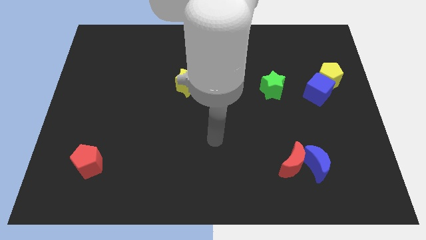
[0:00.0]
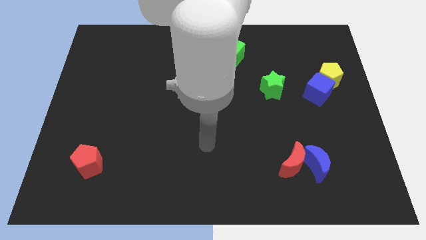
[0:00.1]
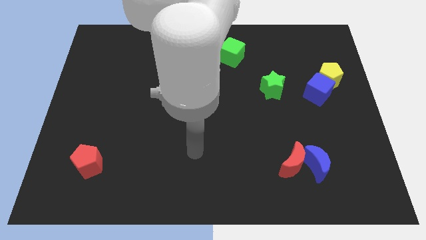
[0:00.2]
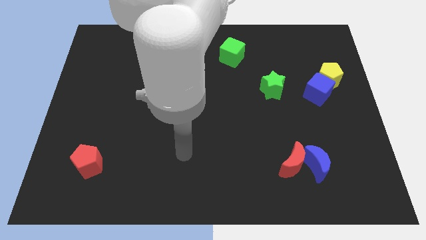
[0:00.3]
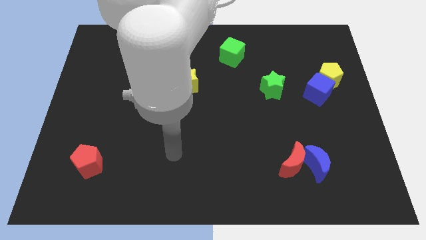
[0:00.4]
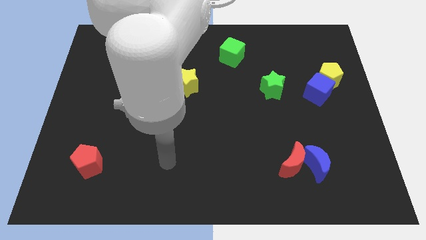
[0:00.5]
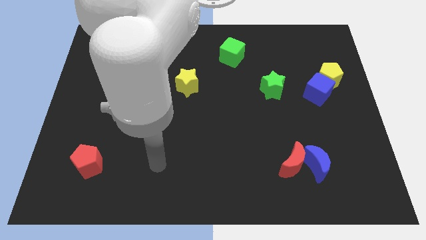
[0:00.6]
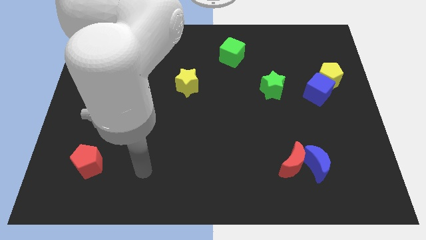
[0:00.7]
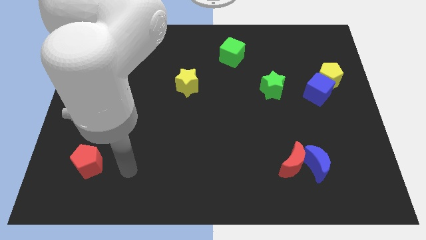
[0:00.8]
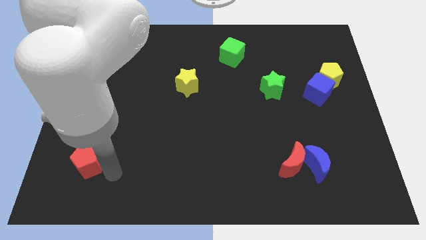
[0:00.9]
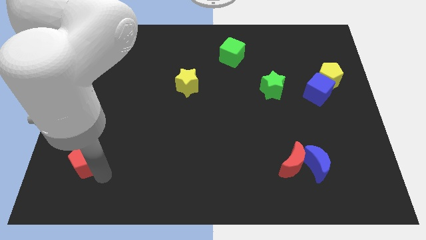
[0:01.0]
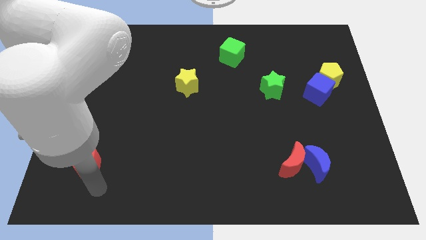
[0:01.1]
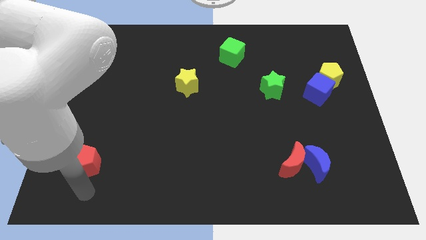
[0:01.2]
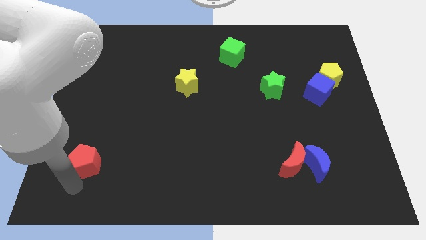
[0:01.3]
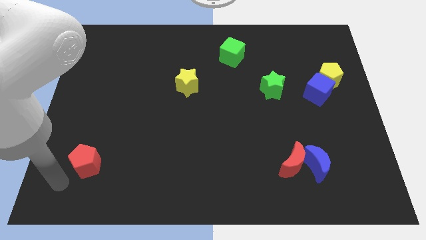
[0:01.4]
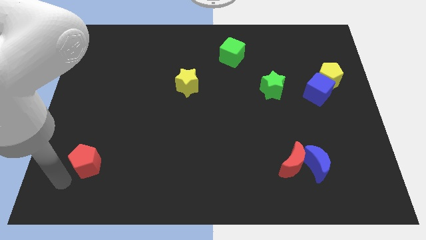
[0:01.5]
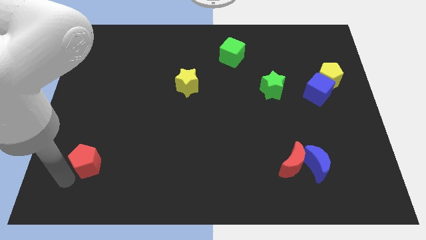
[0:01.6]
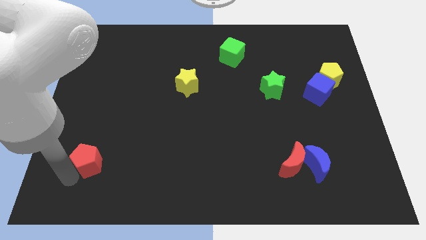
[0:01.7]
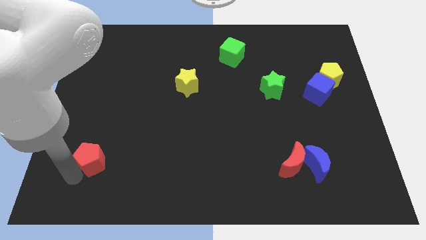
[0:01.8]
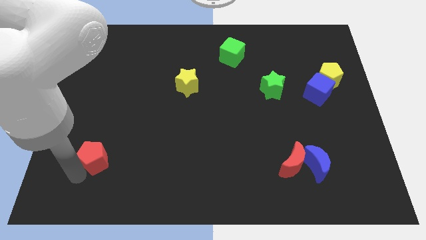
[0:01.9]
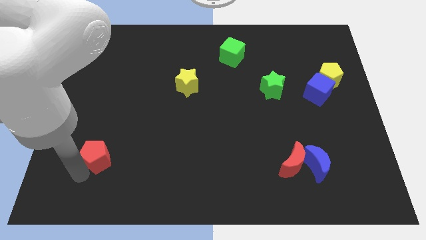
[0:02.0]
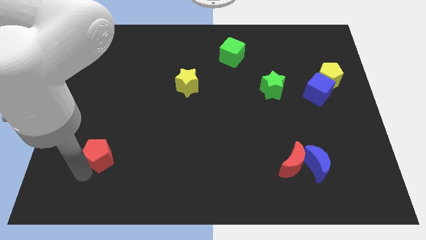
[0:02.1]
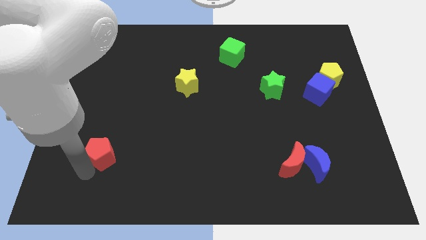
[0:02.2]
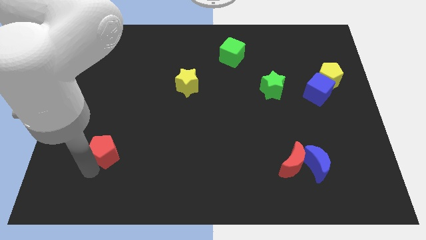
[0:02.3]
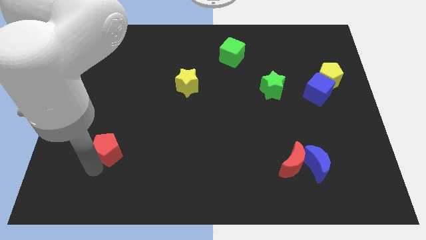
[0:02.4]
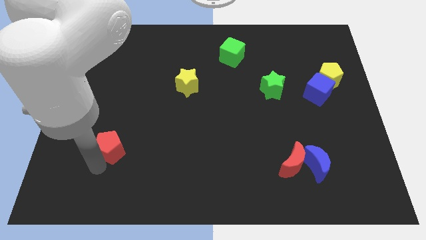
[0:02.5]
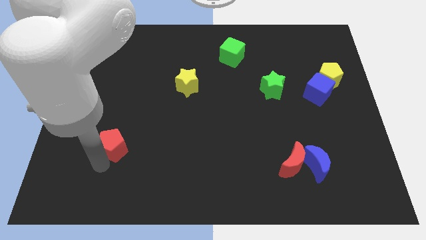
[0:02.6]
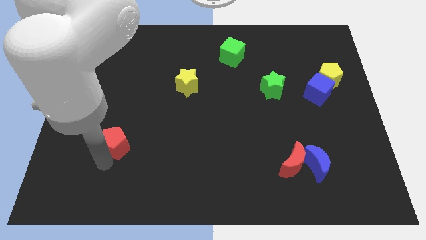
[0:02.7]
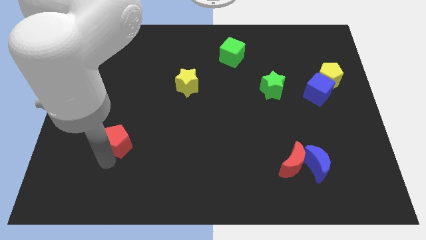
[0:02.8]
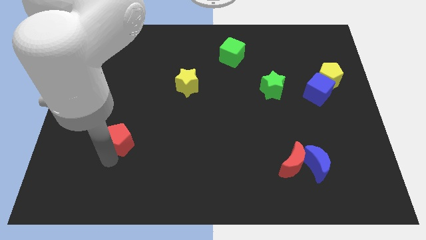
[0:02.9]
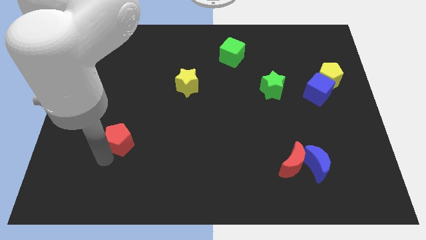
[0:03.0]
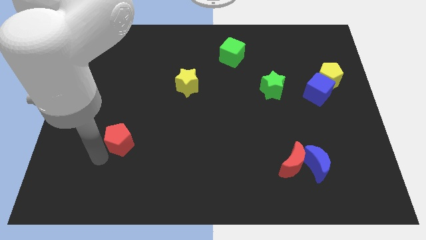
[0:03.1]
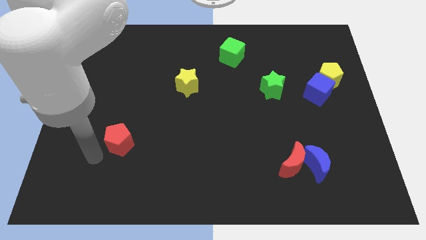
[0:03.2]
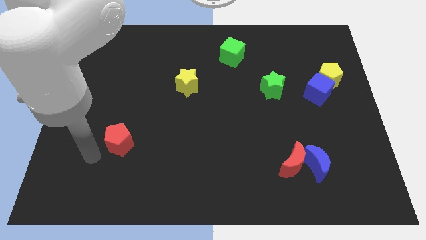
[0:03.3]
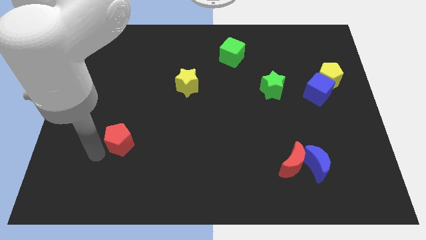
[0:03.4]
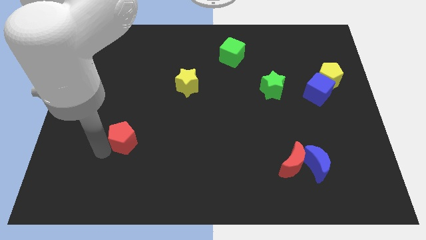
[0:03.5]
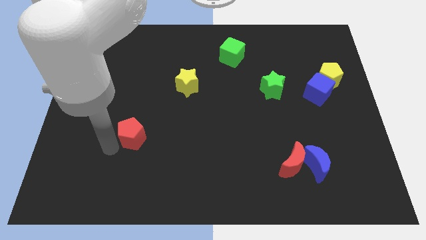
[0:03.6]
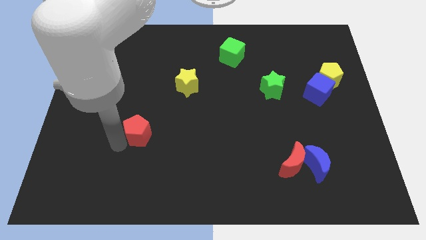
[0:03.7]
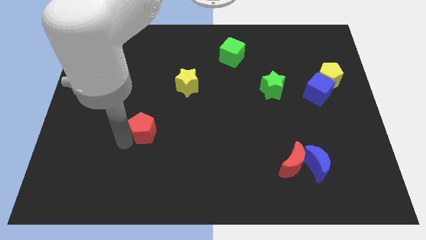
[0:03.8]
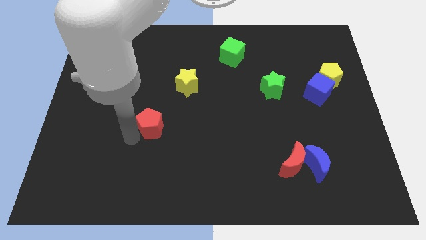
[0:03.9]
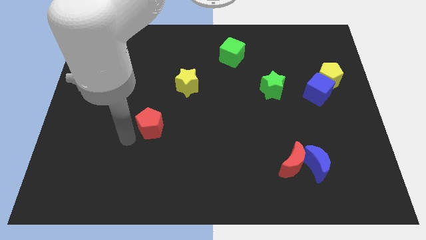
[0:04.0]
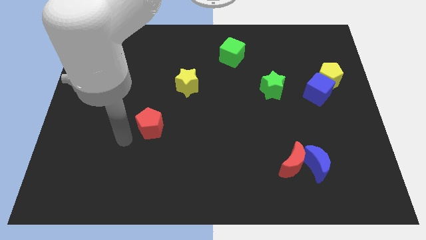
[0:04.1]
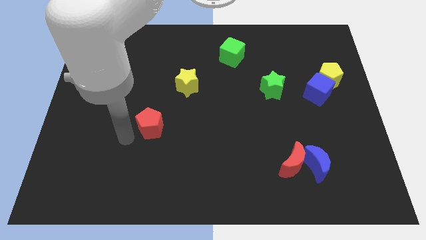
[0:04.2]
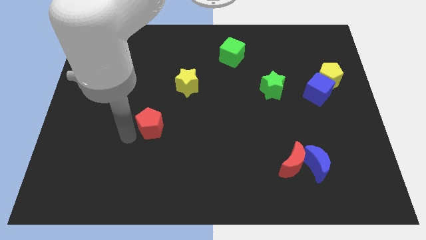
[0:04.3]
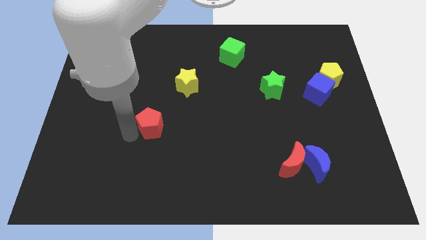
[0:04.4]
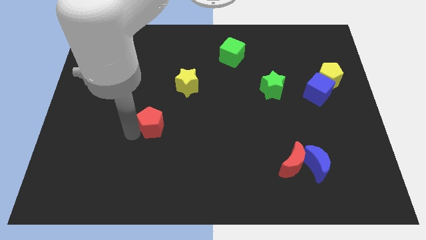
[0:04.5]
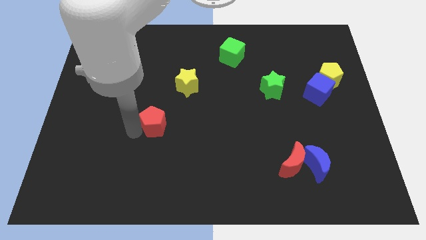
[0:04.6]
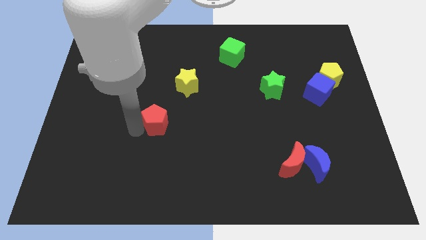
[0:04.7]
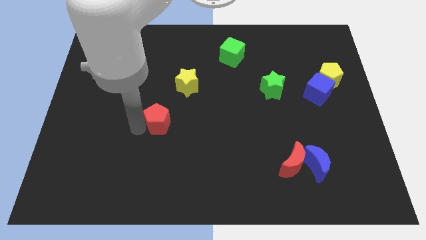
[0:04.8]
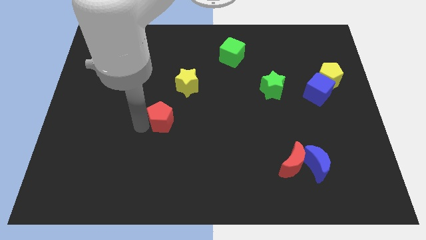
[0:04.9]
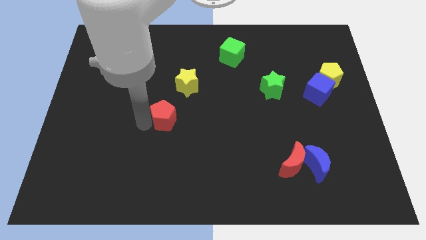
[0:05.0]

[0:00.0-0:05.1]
push the red pentagon to the center of the board

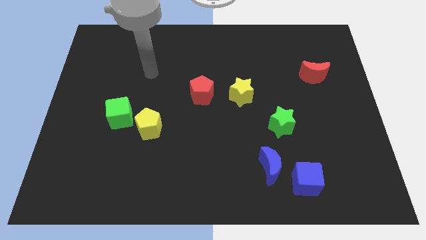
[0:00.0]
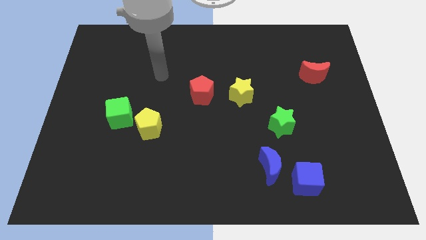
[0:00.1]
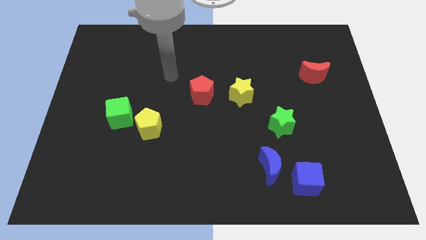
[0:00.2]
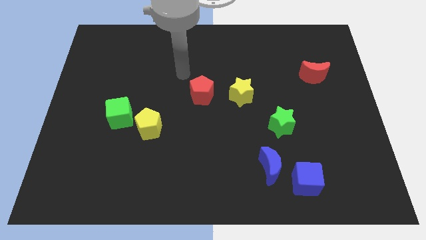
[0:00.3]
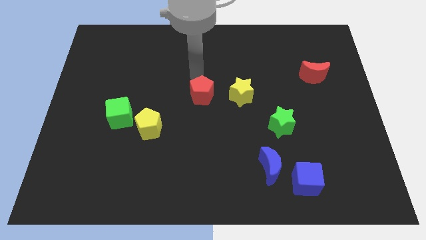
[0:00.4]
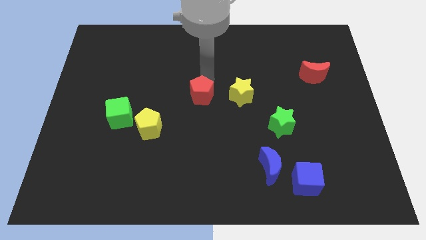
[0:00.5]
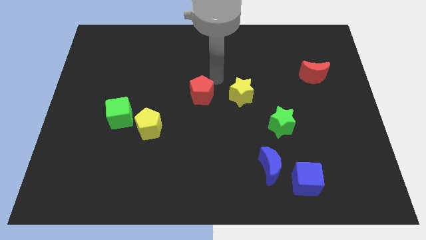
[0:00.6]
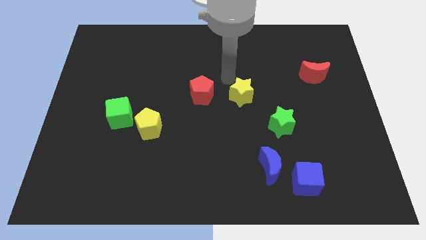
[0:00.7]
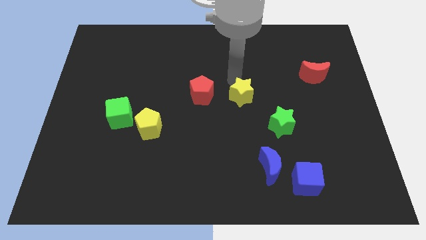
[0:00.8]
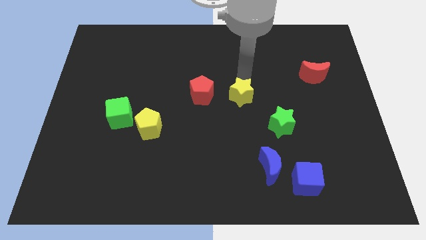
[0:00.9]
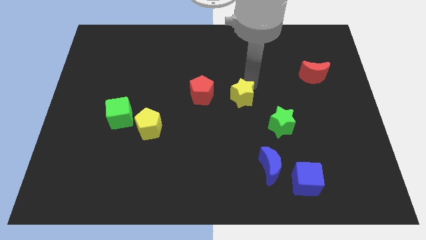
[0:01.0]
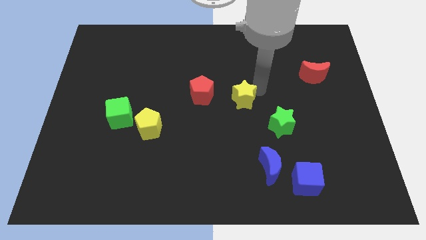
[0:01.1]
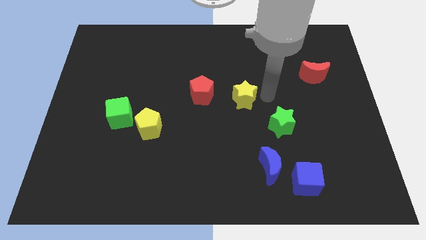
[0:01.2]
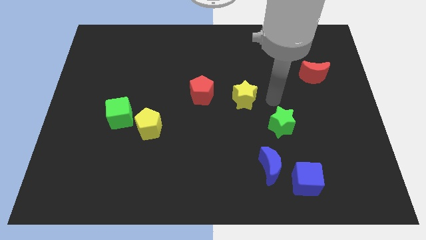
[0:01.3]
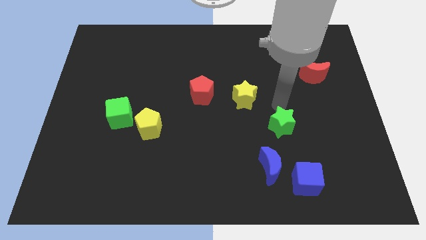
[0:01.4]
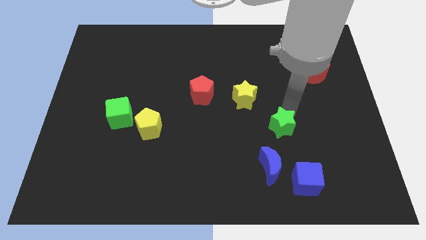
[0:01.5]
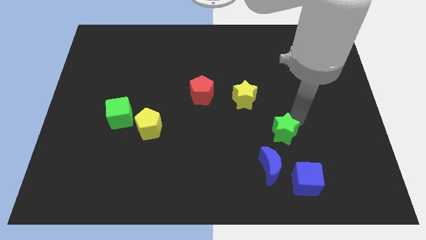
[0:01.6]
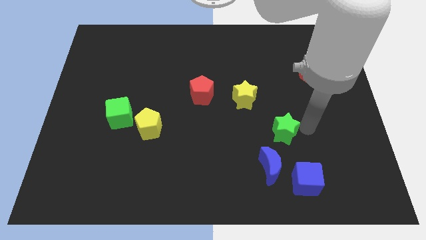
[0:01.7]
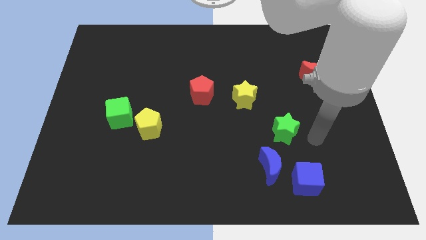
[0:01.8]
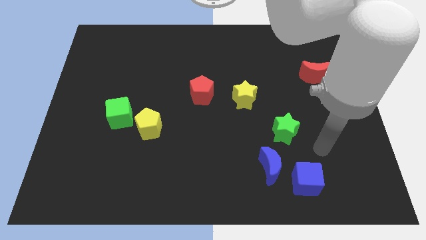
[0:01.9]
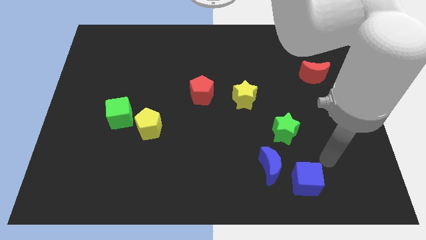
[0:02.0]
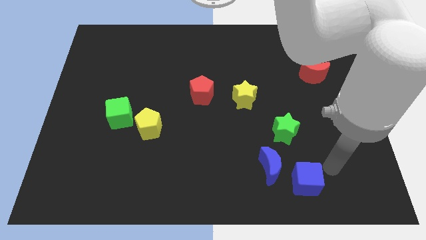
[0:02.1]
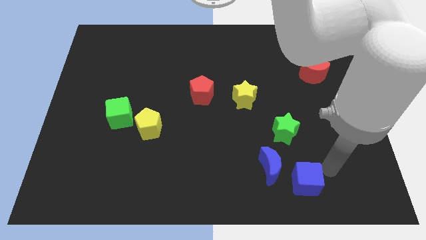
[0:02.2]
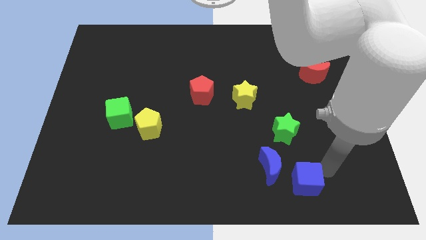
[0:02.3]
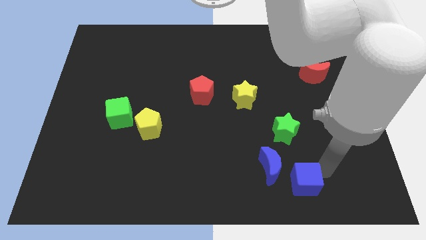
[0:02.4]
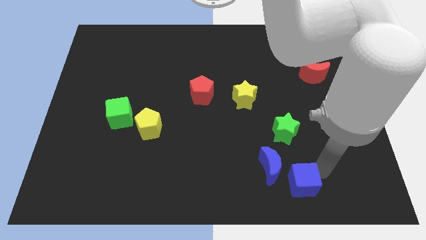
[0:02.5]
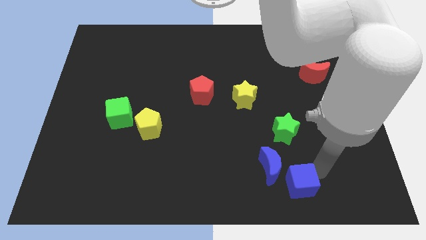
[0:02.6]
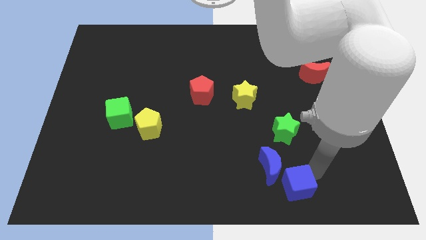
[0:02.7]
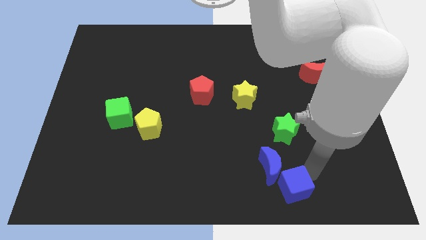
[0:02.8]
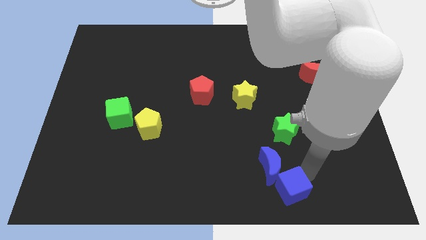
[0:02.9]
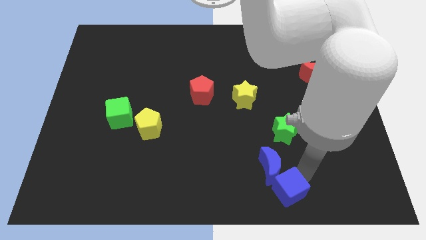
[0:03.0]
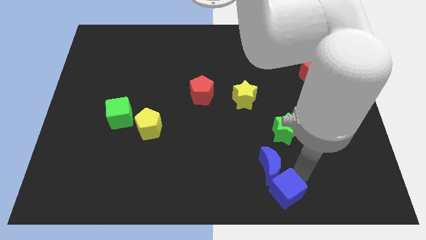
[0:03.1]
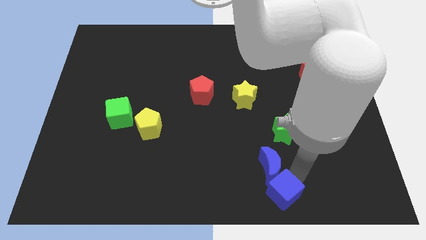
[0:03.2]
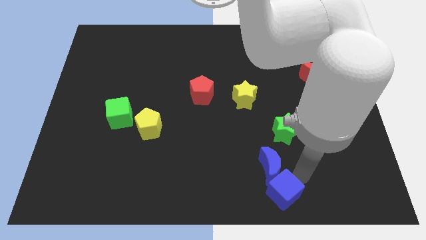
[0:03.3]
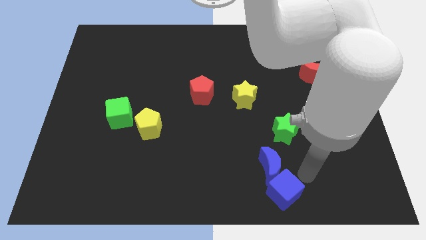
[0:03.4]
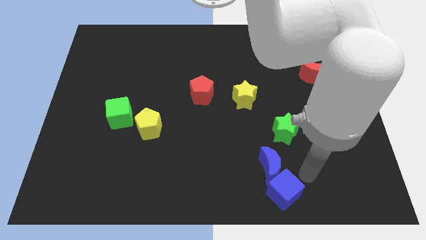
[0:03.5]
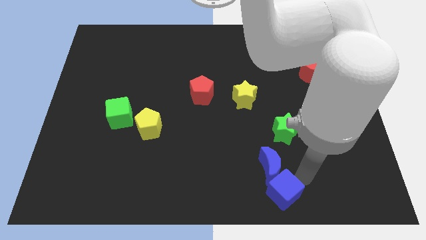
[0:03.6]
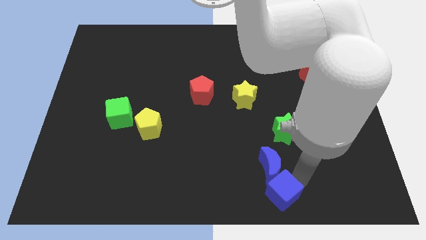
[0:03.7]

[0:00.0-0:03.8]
slide the blue cube to the bottom side
